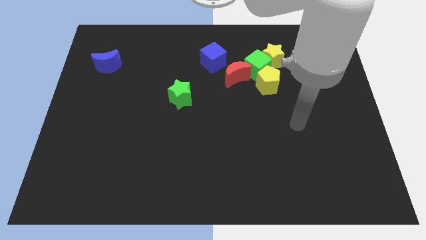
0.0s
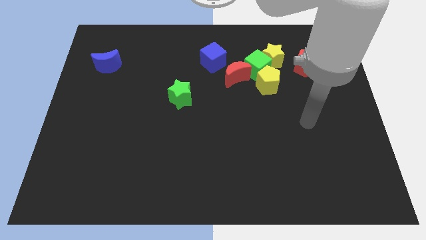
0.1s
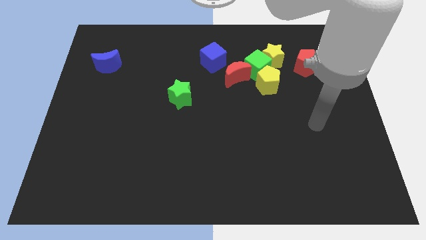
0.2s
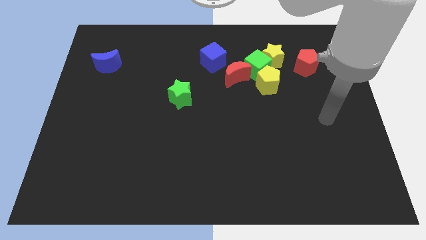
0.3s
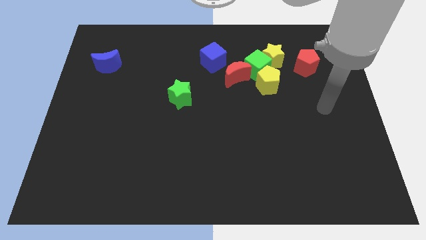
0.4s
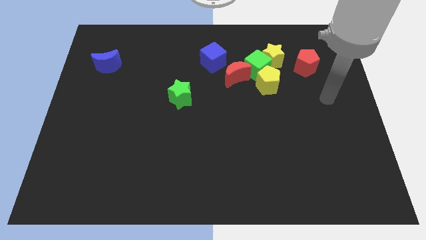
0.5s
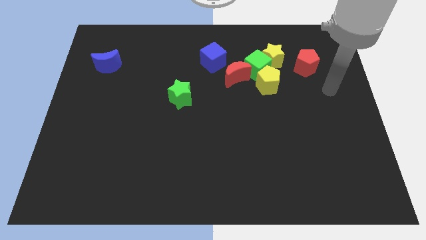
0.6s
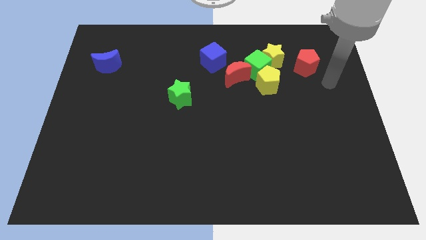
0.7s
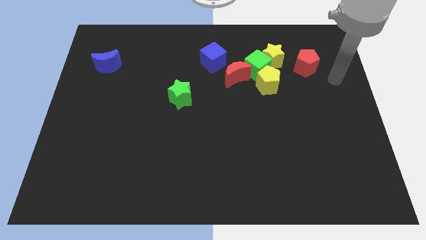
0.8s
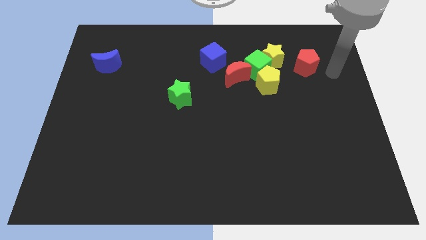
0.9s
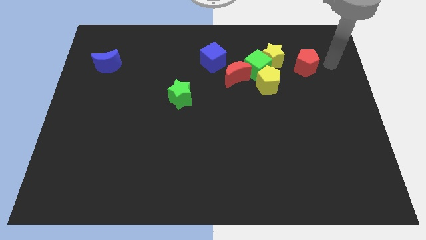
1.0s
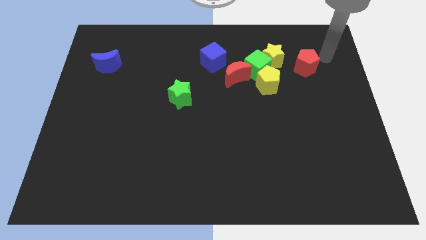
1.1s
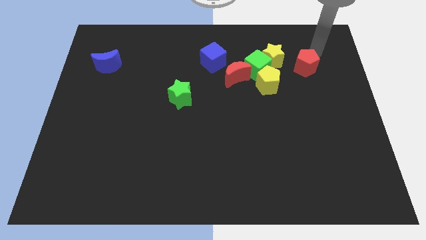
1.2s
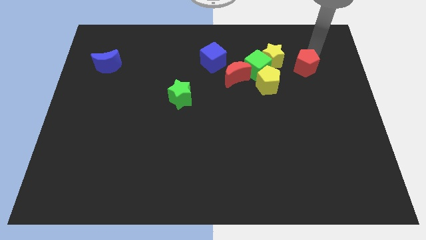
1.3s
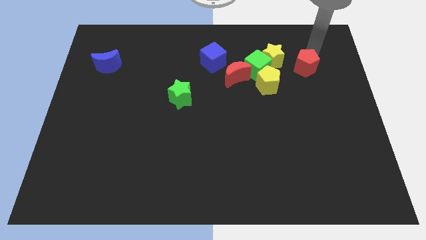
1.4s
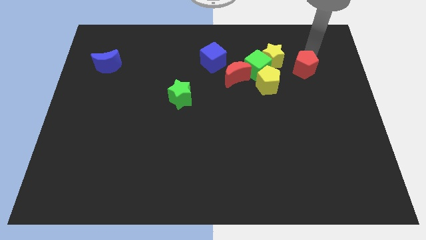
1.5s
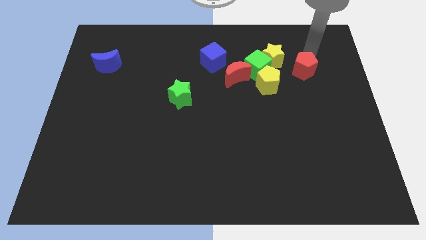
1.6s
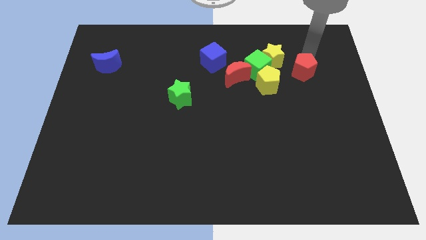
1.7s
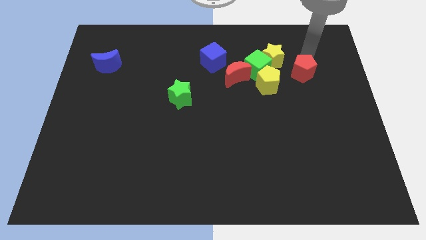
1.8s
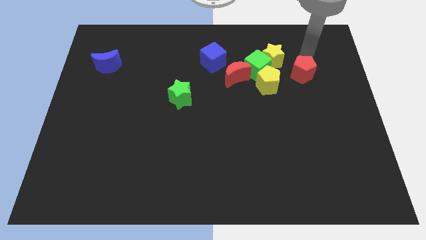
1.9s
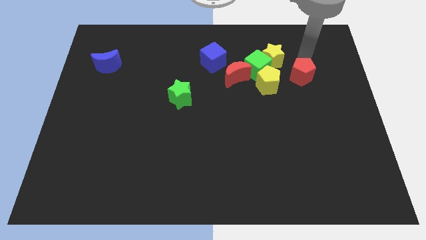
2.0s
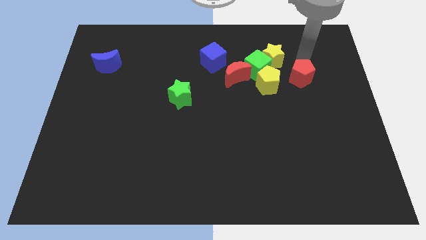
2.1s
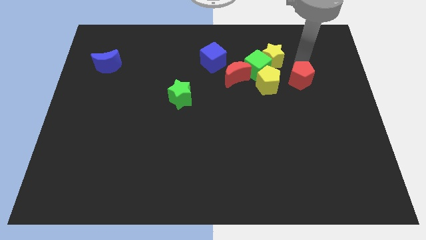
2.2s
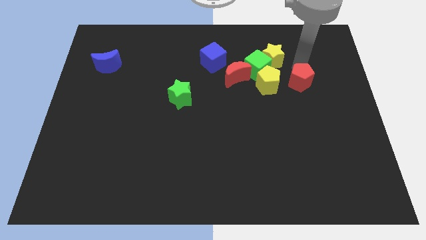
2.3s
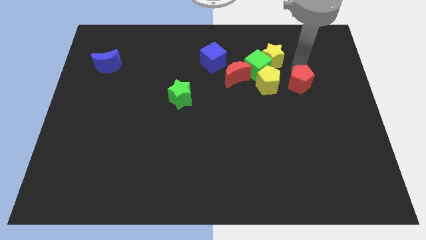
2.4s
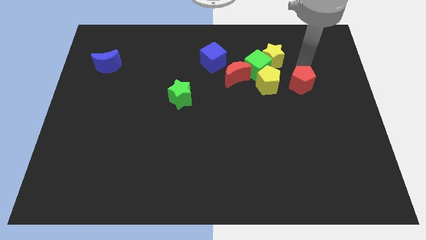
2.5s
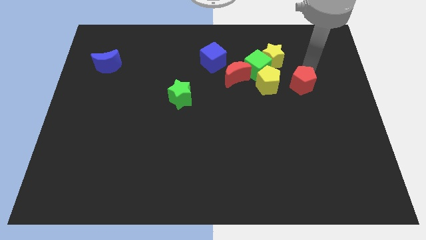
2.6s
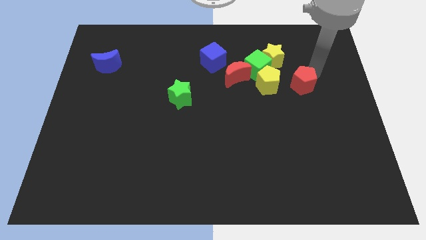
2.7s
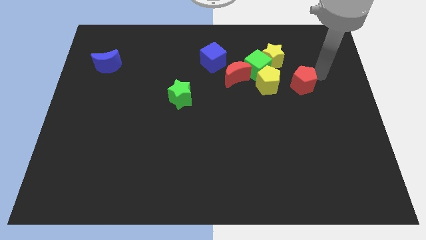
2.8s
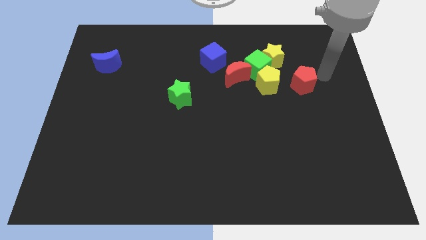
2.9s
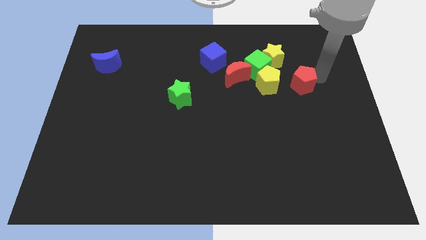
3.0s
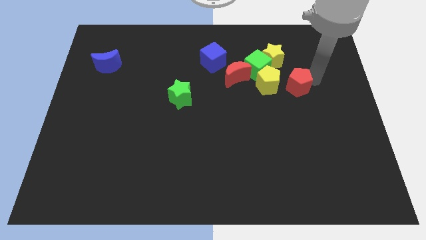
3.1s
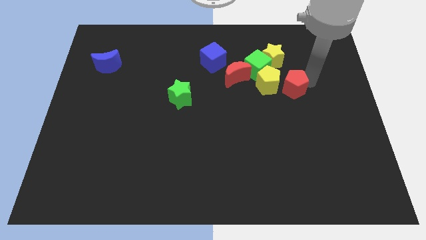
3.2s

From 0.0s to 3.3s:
slightly move the red pentagon downwards and to the left

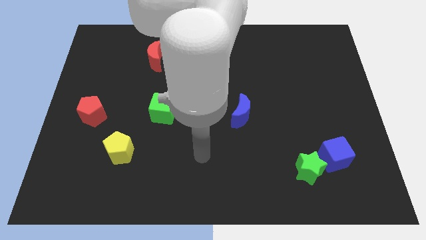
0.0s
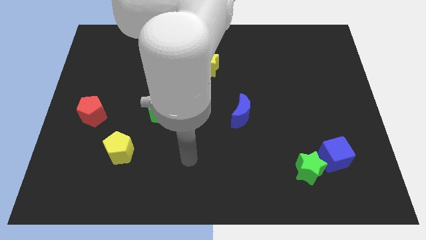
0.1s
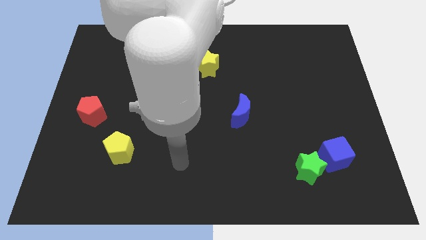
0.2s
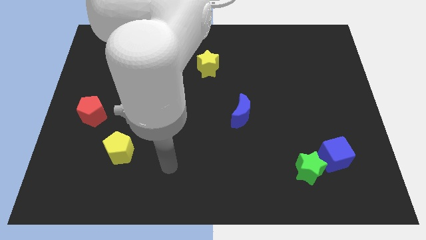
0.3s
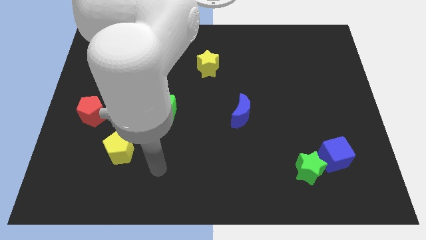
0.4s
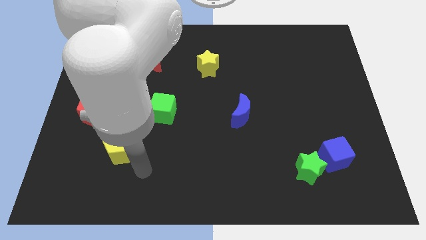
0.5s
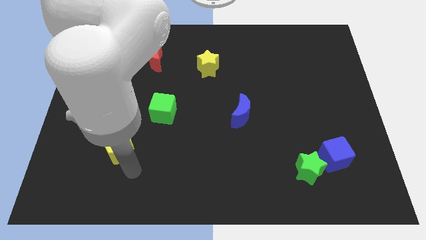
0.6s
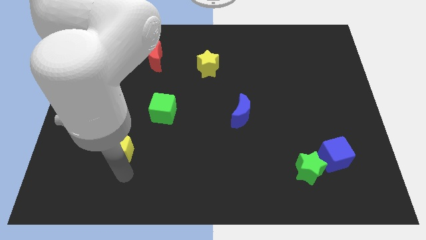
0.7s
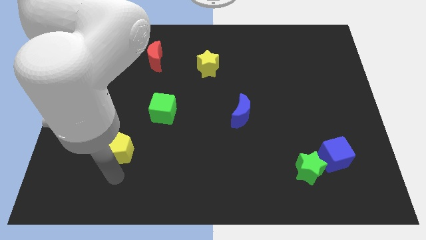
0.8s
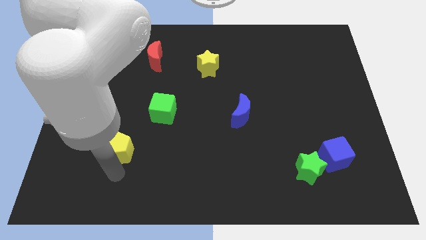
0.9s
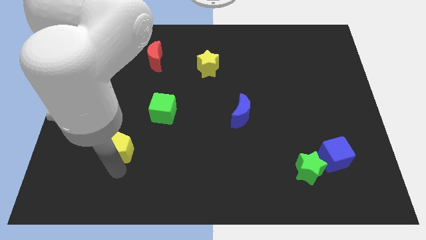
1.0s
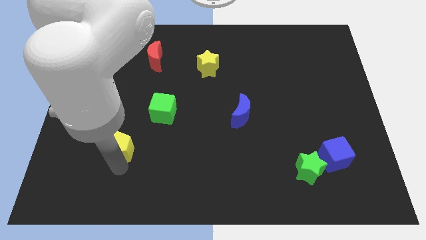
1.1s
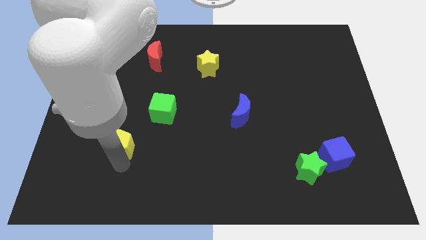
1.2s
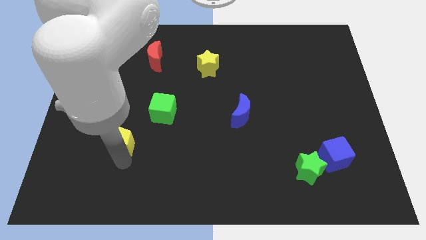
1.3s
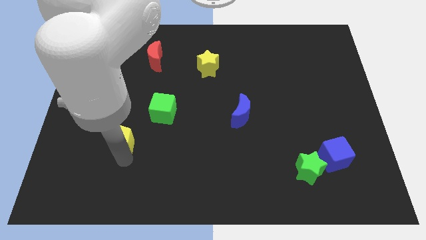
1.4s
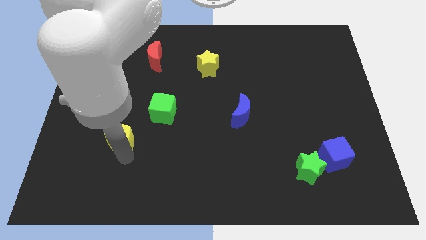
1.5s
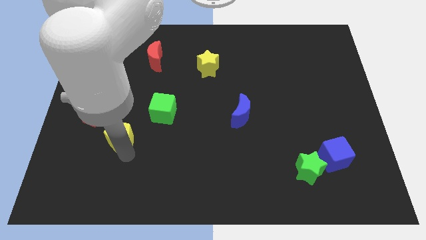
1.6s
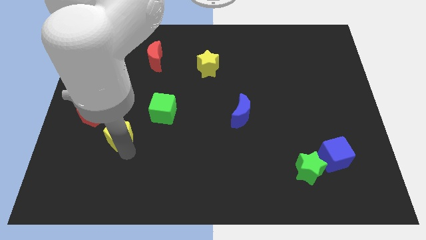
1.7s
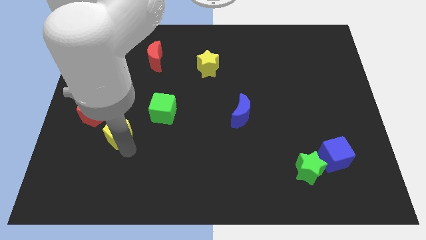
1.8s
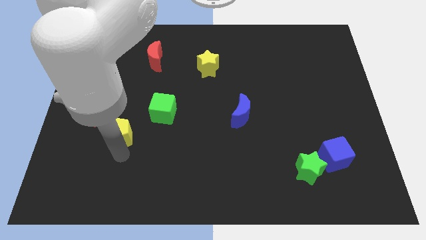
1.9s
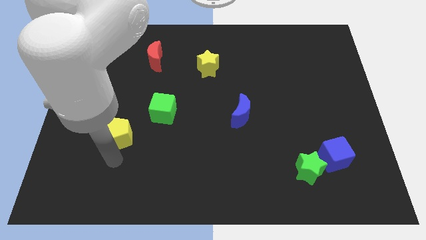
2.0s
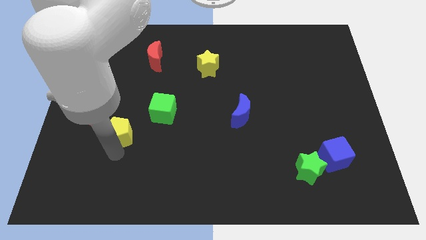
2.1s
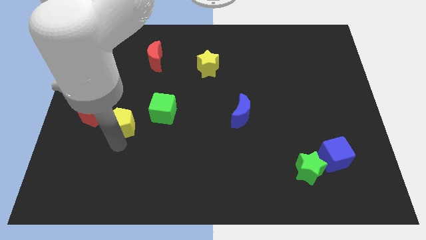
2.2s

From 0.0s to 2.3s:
slightly slide the yellow pentagon up

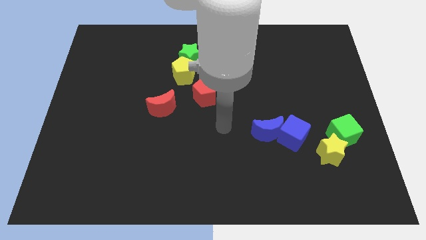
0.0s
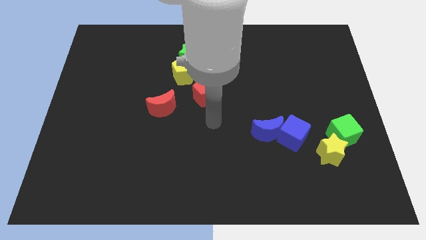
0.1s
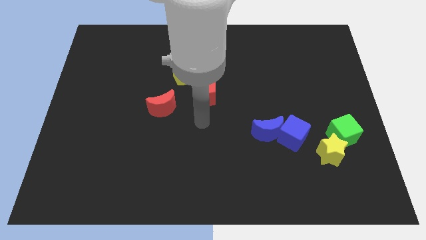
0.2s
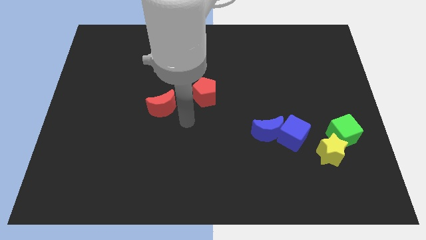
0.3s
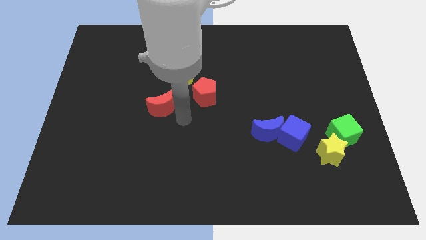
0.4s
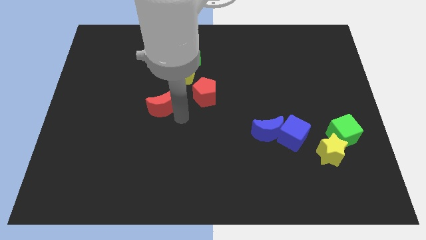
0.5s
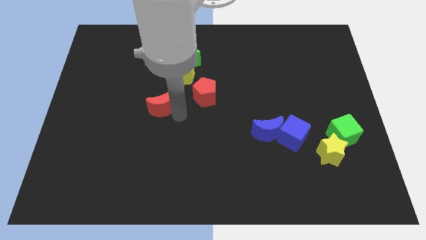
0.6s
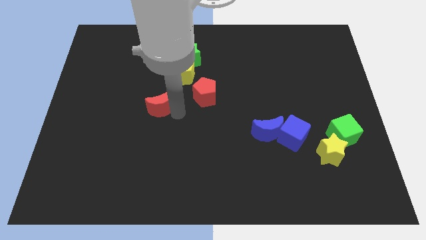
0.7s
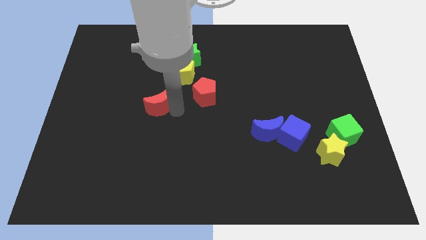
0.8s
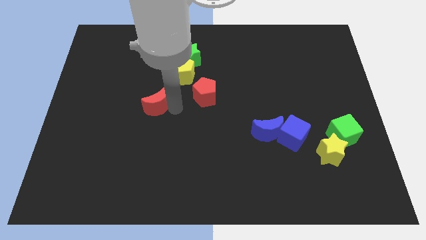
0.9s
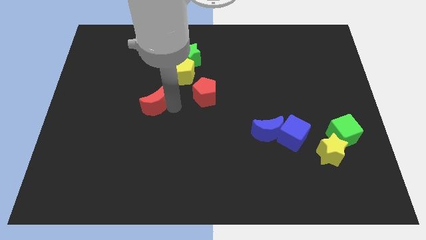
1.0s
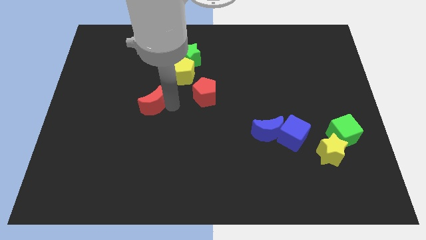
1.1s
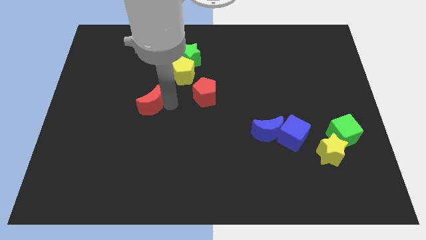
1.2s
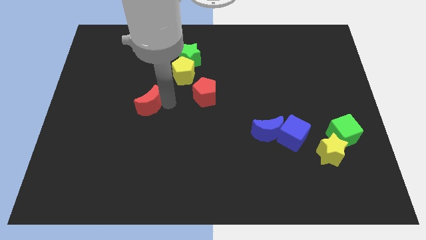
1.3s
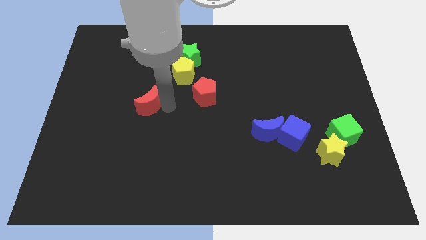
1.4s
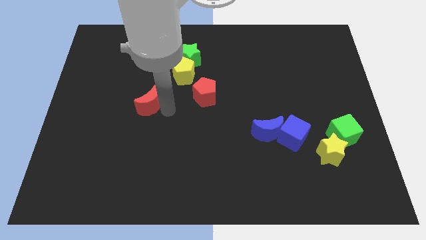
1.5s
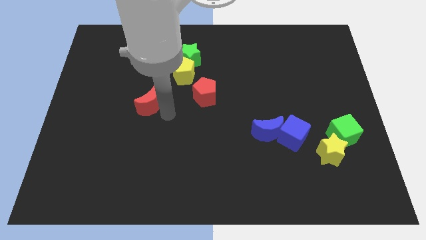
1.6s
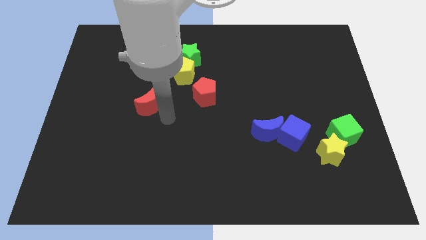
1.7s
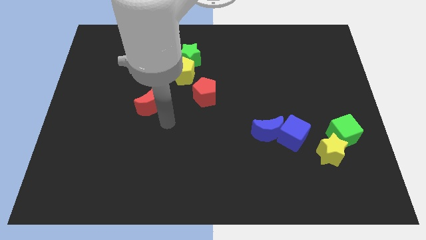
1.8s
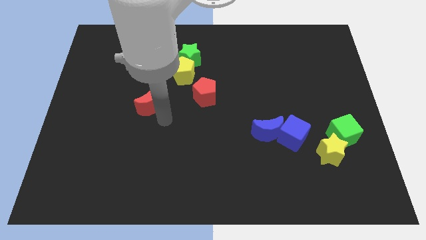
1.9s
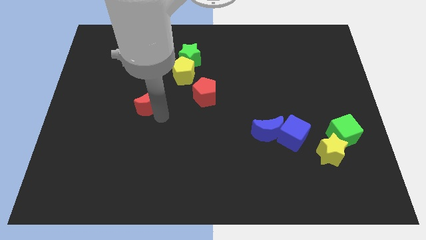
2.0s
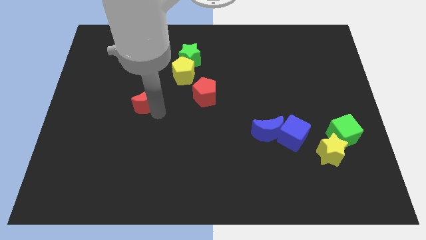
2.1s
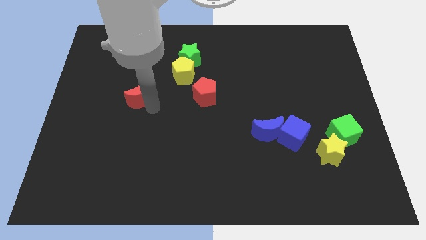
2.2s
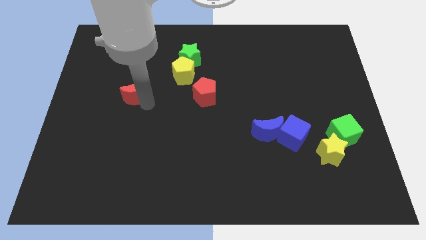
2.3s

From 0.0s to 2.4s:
slide the red moon up and left diagonally somewhat
